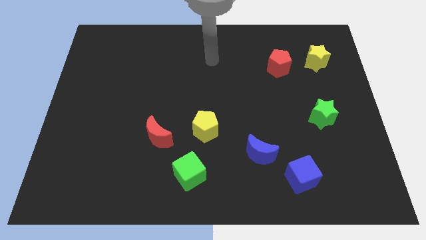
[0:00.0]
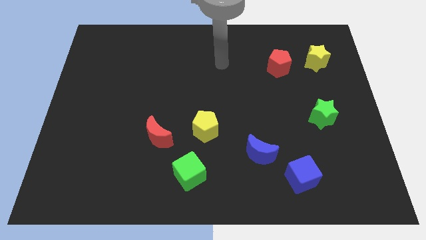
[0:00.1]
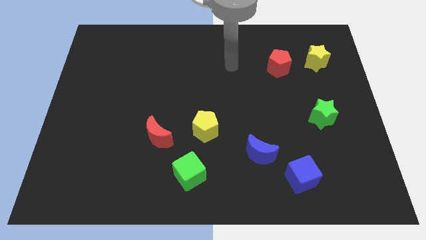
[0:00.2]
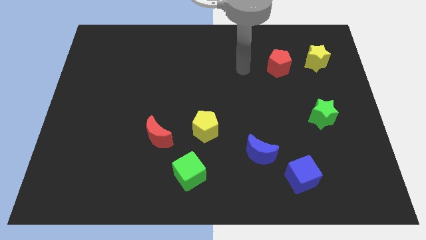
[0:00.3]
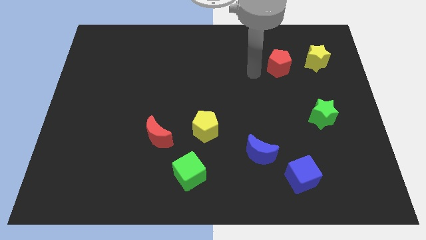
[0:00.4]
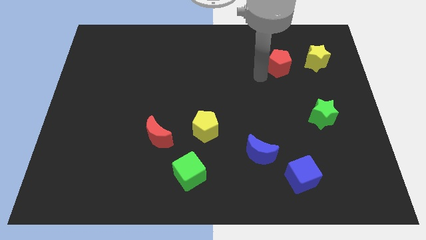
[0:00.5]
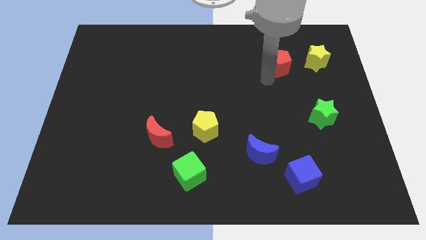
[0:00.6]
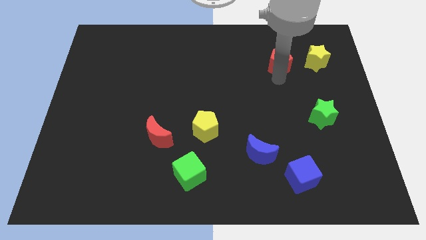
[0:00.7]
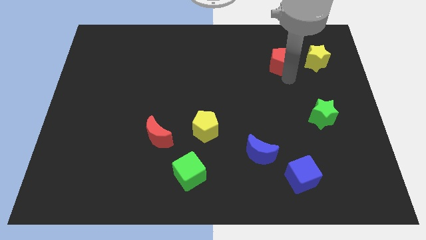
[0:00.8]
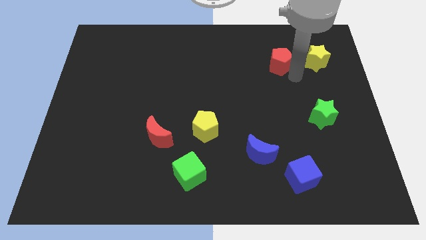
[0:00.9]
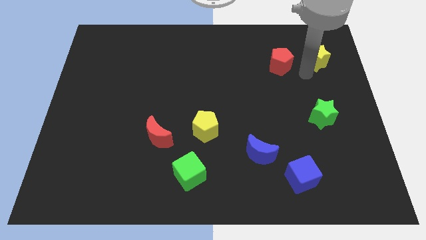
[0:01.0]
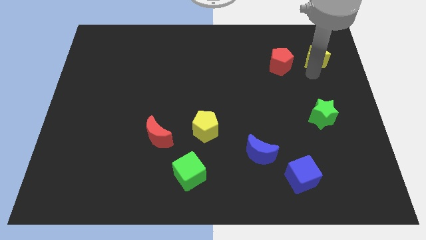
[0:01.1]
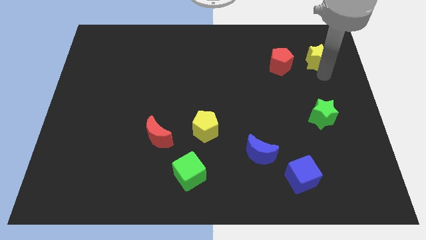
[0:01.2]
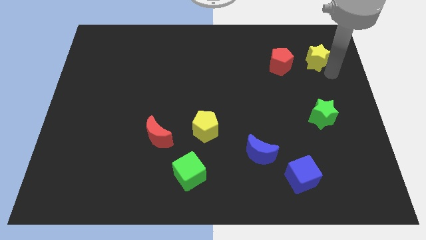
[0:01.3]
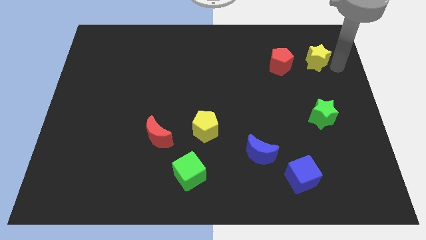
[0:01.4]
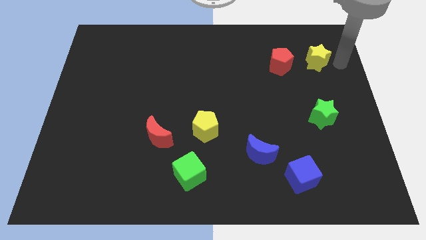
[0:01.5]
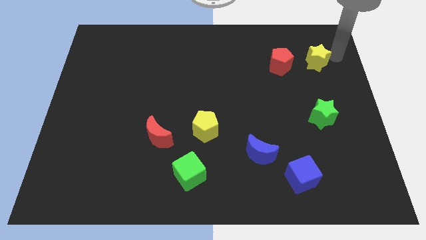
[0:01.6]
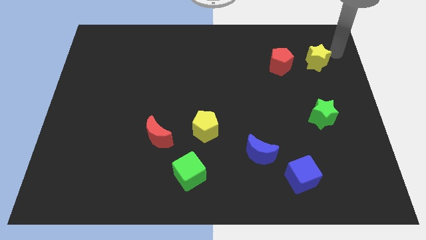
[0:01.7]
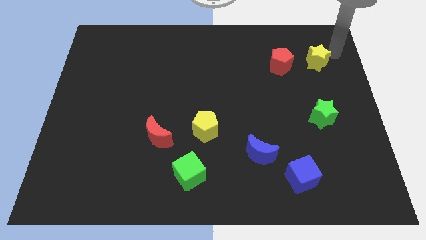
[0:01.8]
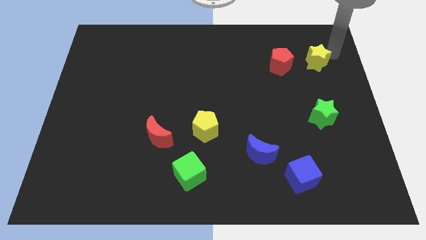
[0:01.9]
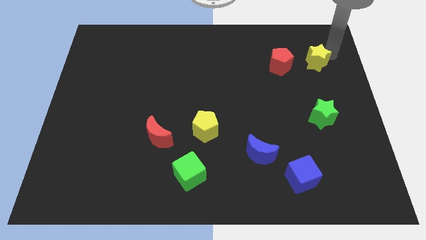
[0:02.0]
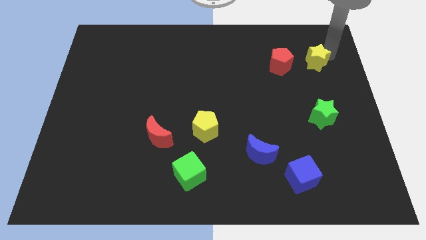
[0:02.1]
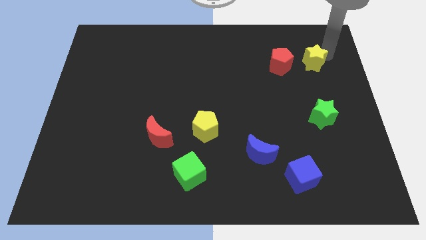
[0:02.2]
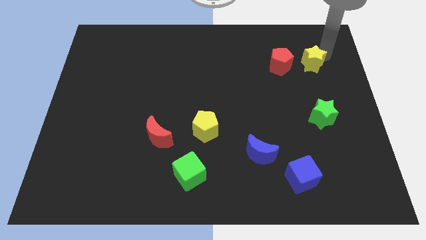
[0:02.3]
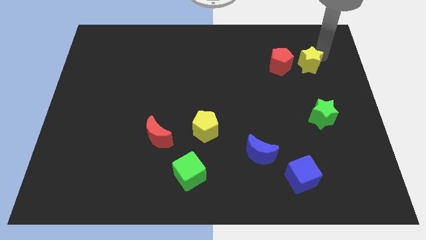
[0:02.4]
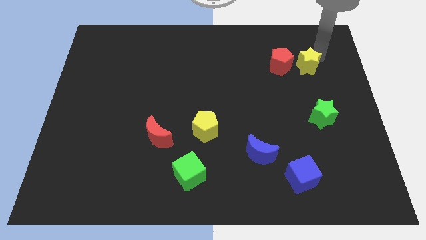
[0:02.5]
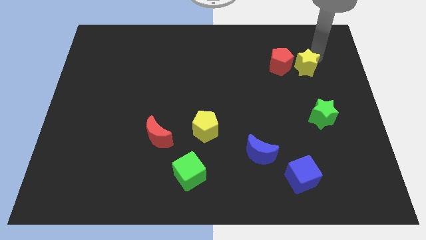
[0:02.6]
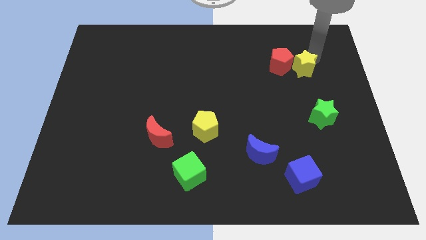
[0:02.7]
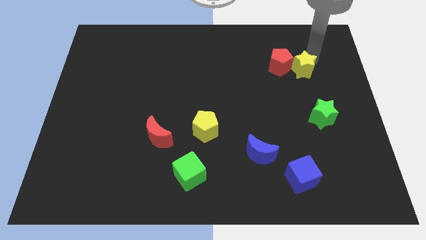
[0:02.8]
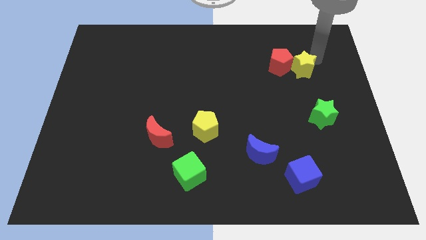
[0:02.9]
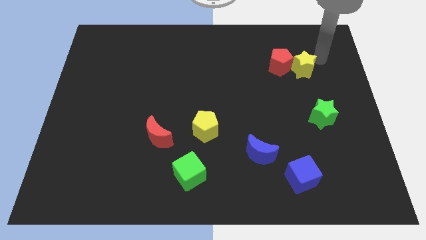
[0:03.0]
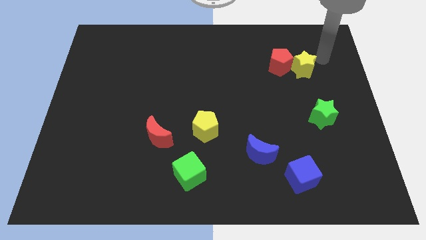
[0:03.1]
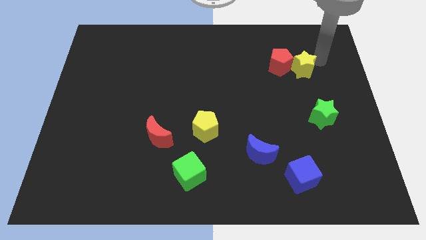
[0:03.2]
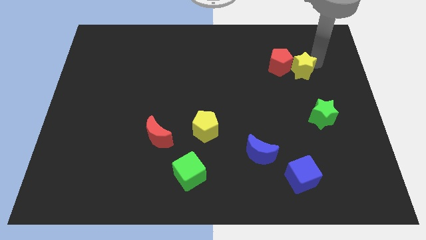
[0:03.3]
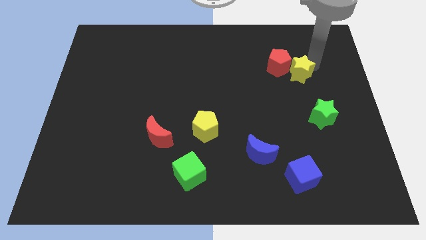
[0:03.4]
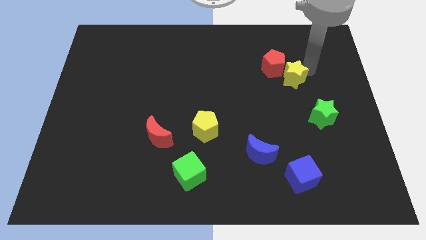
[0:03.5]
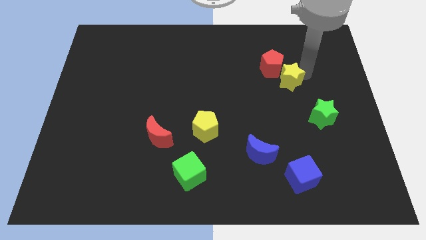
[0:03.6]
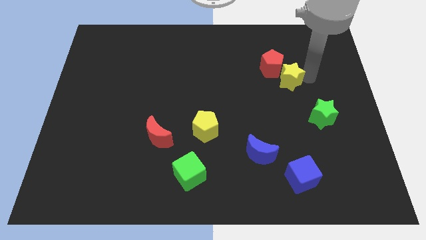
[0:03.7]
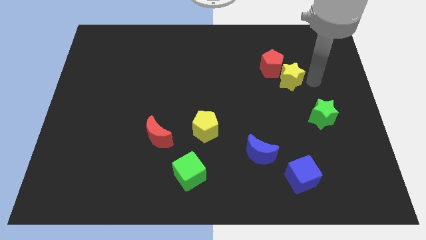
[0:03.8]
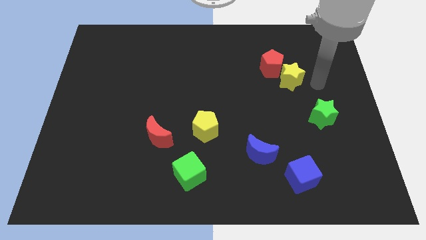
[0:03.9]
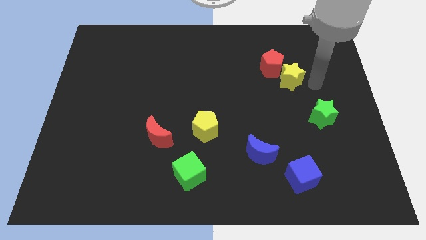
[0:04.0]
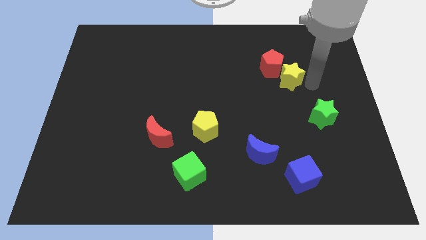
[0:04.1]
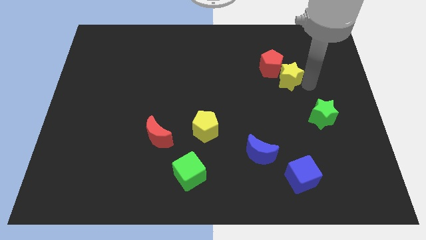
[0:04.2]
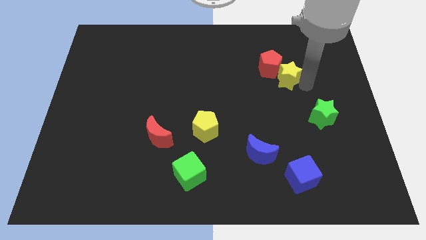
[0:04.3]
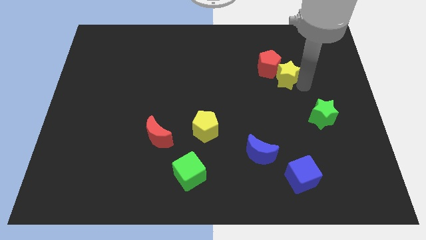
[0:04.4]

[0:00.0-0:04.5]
slightly push the yellow star to the left

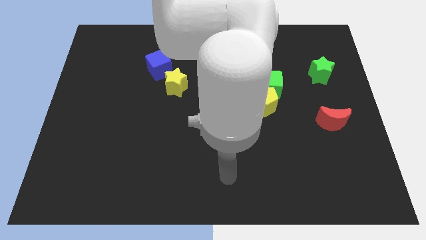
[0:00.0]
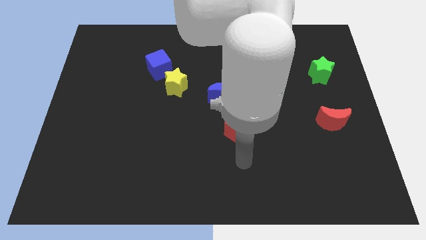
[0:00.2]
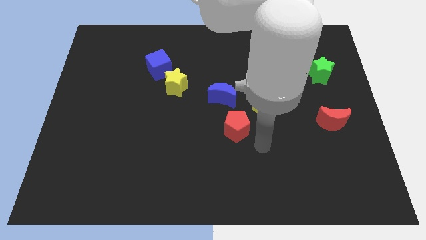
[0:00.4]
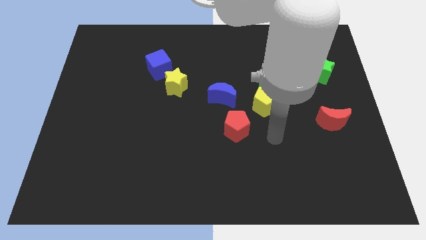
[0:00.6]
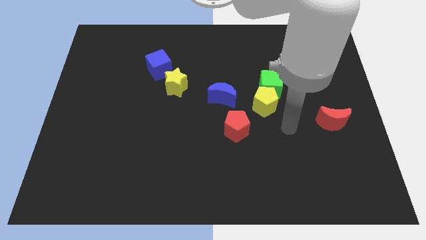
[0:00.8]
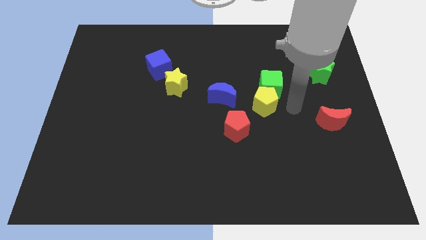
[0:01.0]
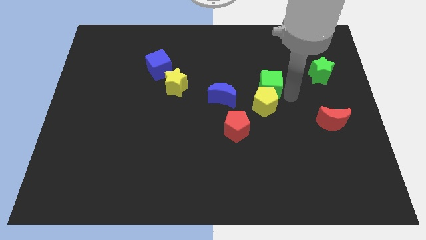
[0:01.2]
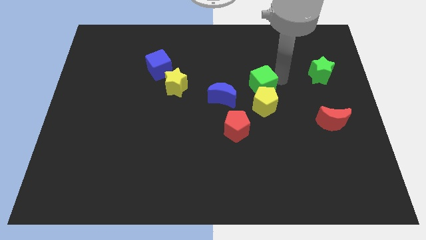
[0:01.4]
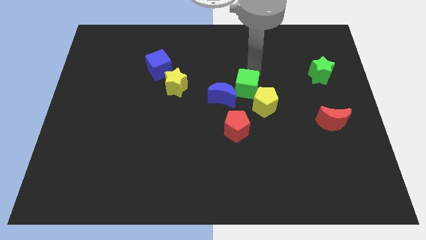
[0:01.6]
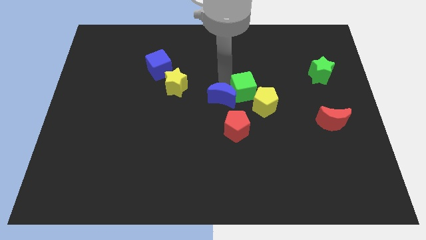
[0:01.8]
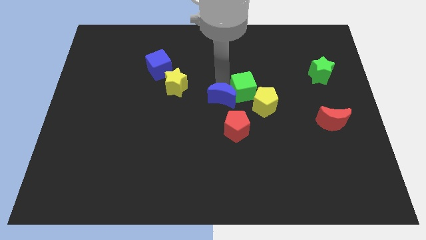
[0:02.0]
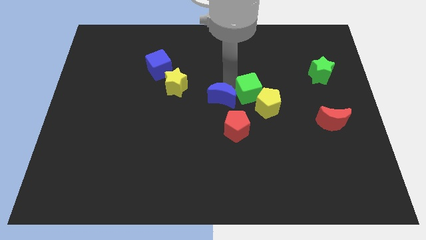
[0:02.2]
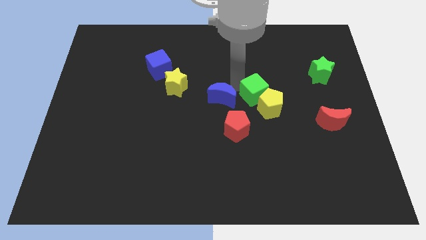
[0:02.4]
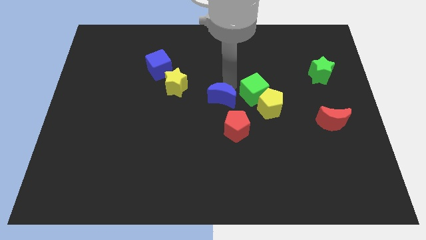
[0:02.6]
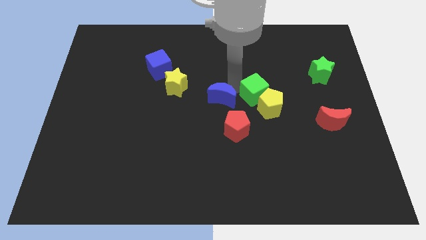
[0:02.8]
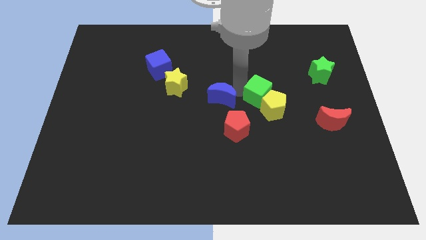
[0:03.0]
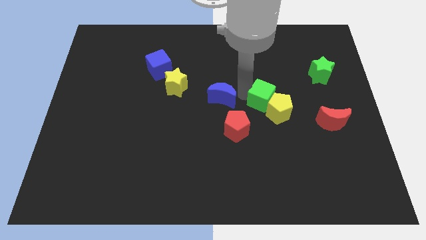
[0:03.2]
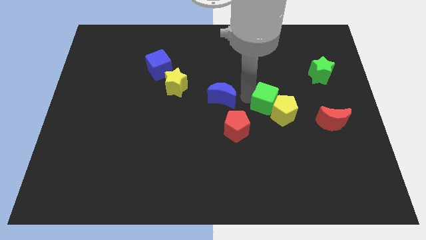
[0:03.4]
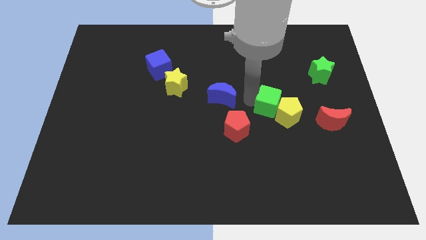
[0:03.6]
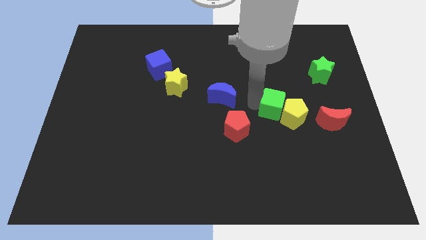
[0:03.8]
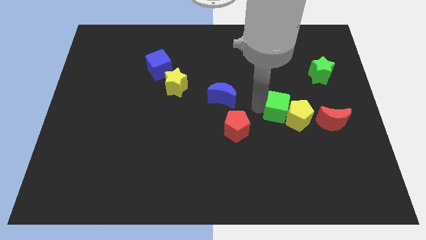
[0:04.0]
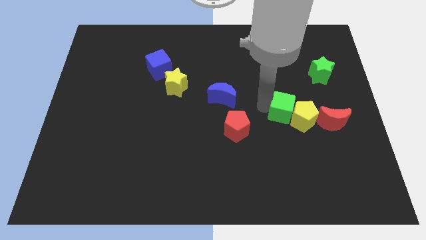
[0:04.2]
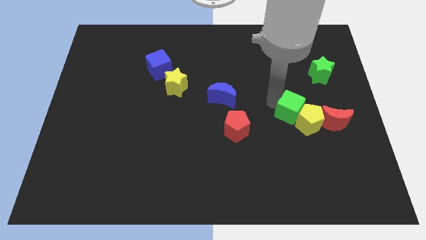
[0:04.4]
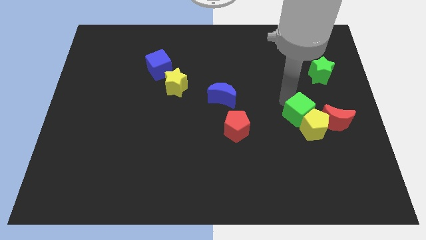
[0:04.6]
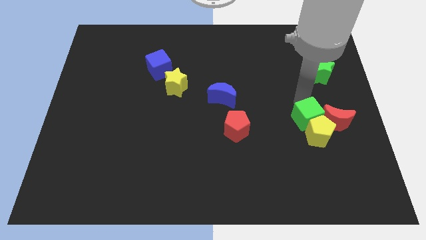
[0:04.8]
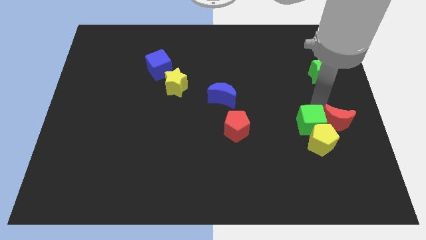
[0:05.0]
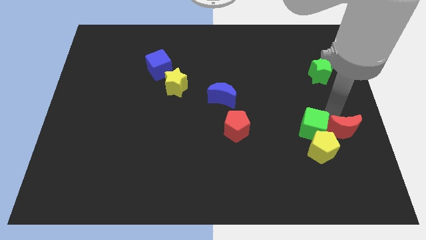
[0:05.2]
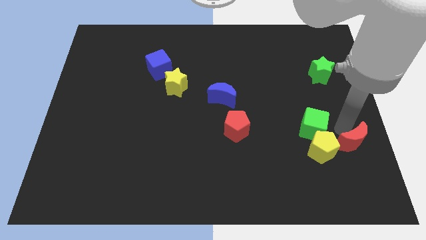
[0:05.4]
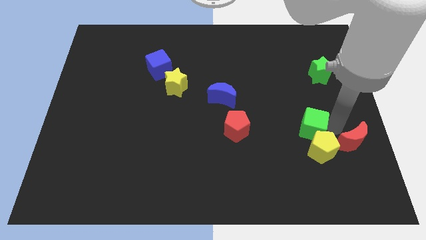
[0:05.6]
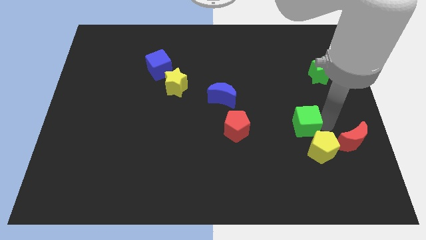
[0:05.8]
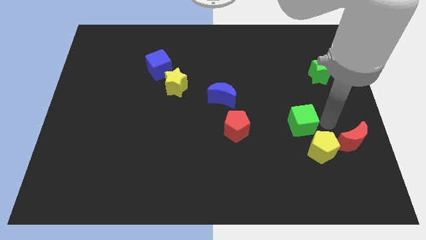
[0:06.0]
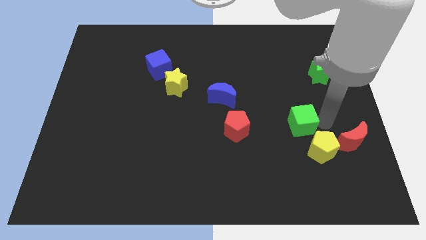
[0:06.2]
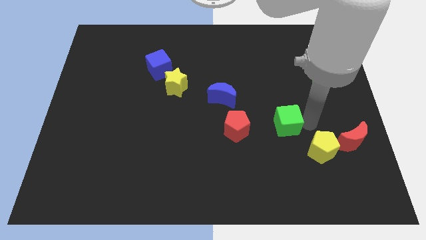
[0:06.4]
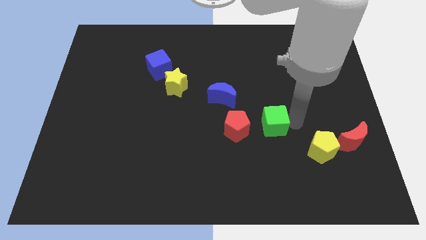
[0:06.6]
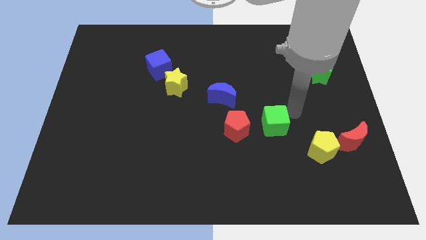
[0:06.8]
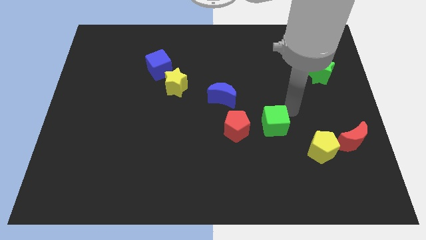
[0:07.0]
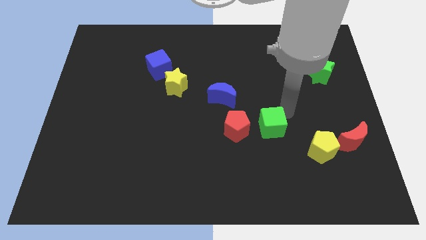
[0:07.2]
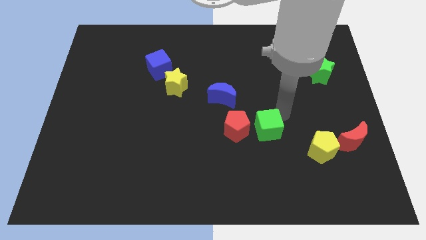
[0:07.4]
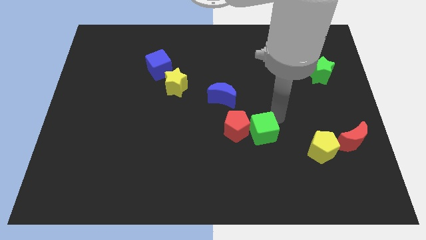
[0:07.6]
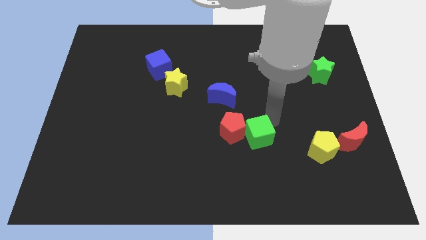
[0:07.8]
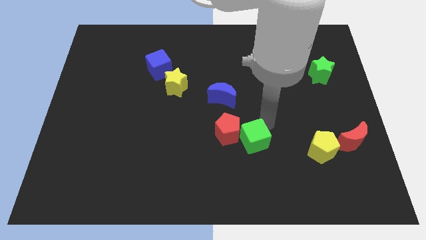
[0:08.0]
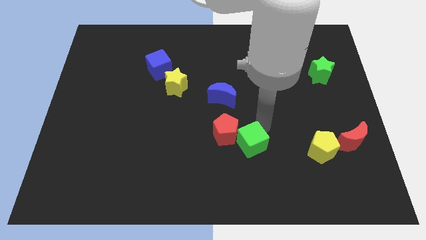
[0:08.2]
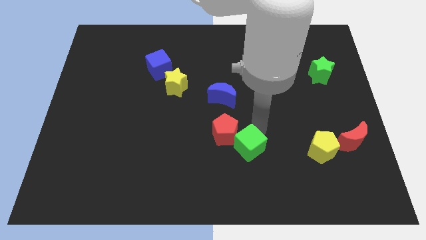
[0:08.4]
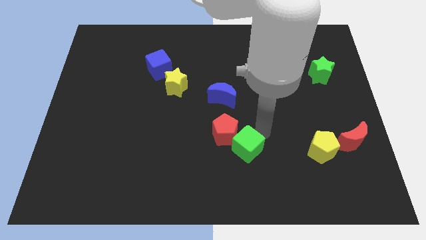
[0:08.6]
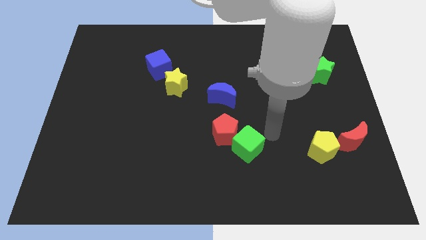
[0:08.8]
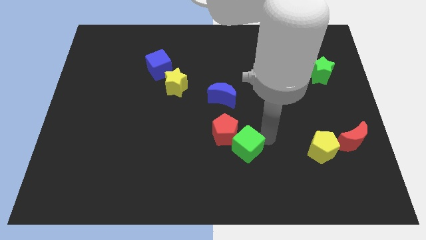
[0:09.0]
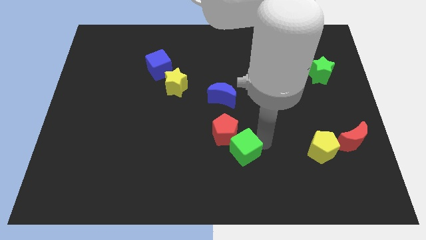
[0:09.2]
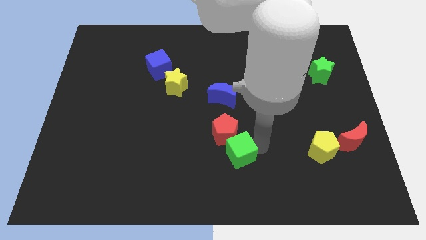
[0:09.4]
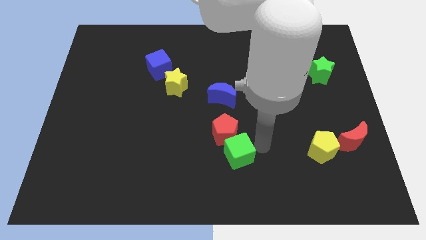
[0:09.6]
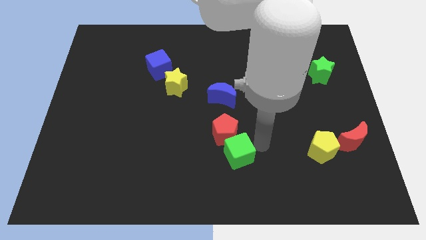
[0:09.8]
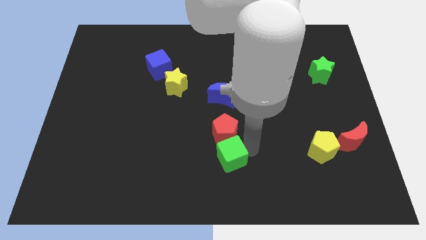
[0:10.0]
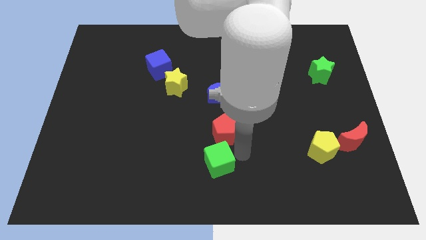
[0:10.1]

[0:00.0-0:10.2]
push the green cube diagonally downwards and to the left
